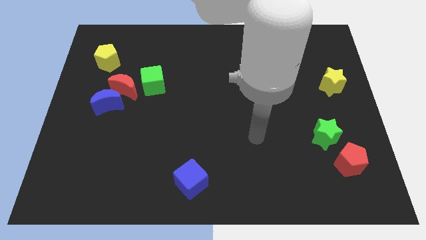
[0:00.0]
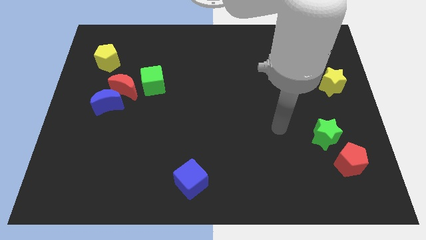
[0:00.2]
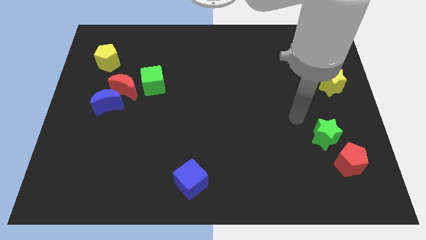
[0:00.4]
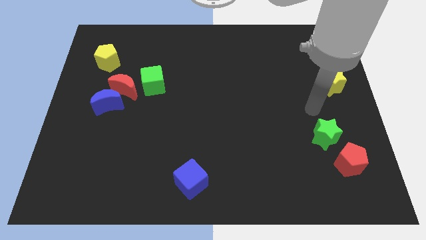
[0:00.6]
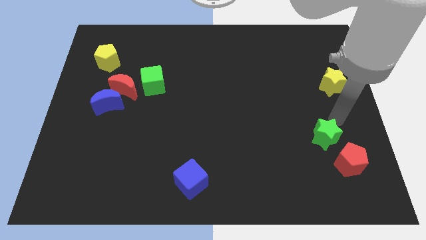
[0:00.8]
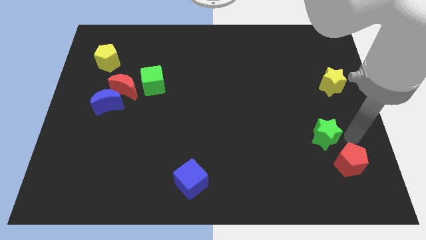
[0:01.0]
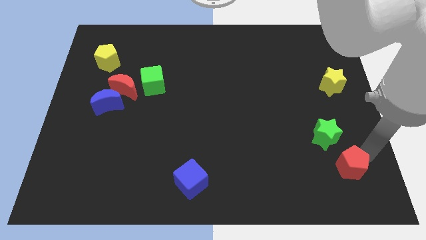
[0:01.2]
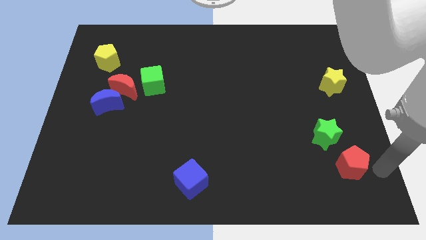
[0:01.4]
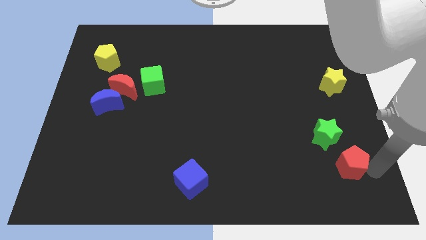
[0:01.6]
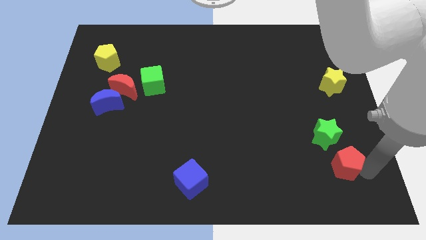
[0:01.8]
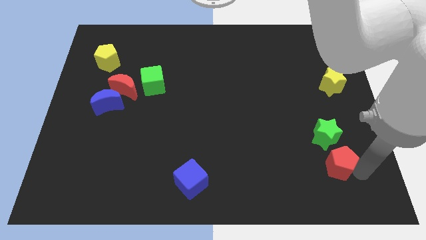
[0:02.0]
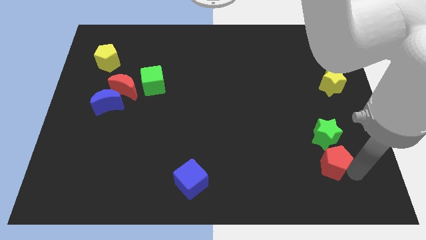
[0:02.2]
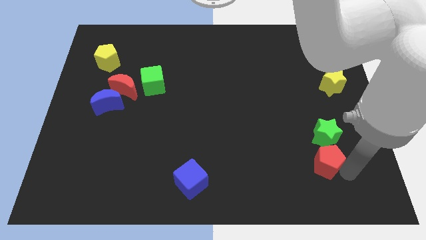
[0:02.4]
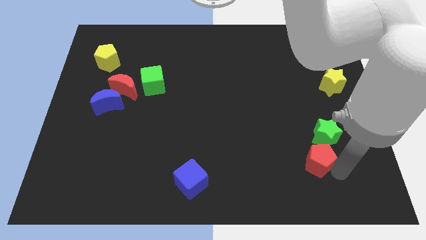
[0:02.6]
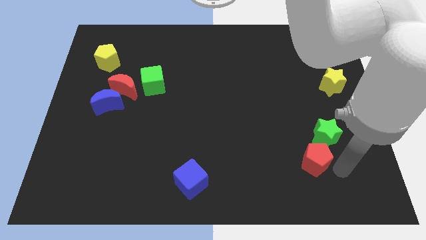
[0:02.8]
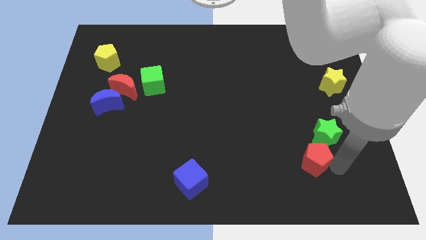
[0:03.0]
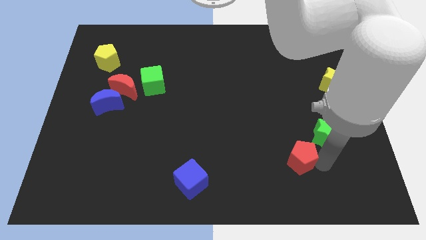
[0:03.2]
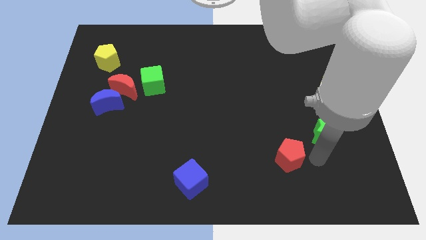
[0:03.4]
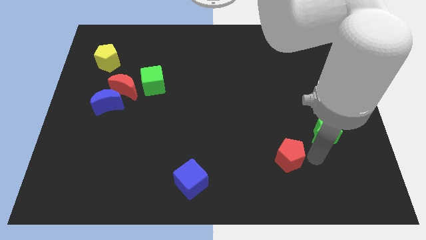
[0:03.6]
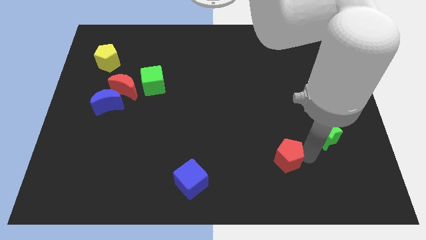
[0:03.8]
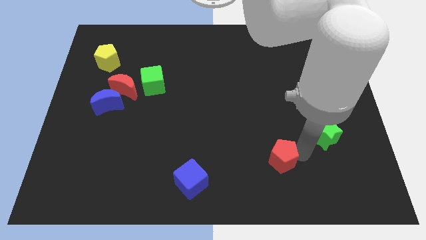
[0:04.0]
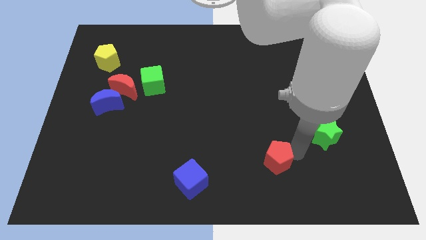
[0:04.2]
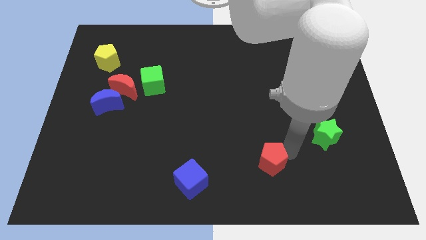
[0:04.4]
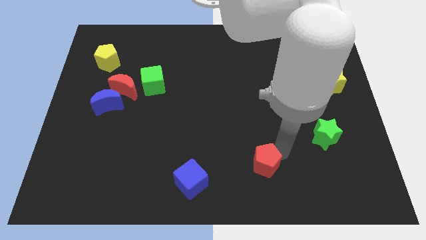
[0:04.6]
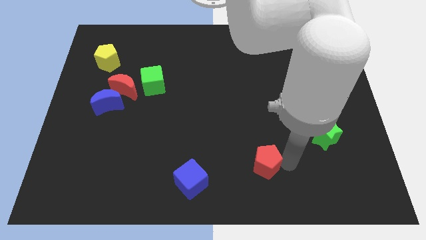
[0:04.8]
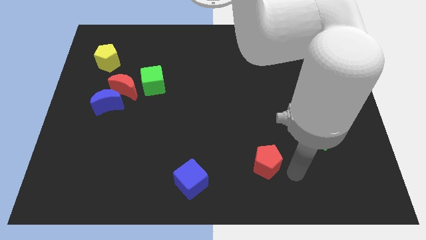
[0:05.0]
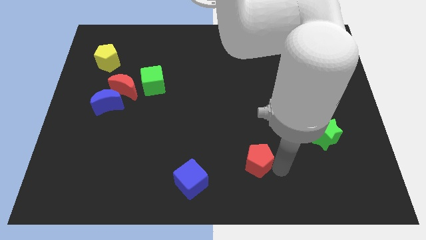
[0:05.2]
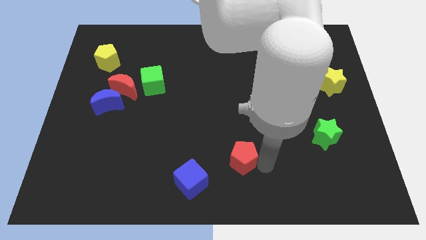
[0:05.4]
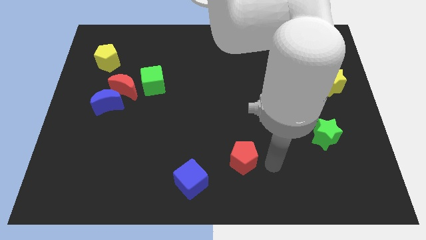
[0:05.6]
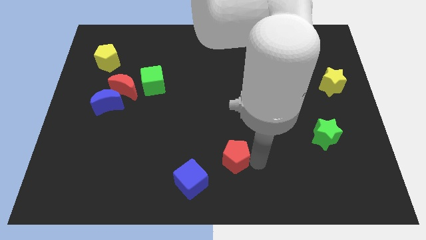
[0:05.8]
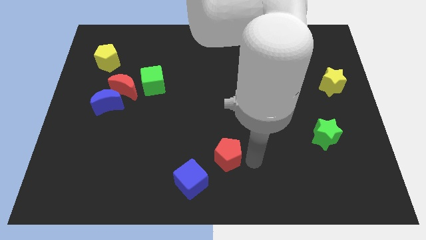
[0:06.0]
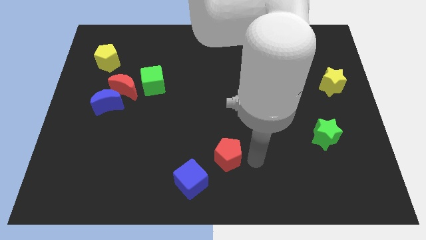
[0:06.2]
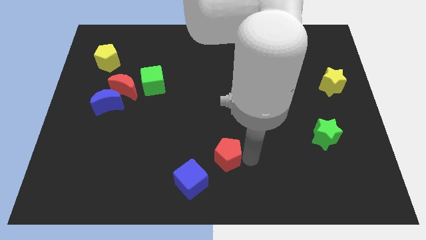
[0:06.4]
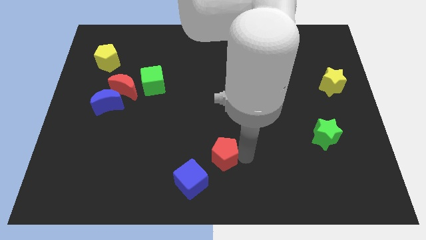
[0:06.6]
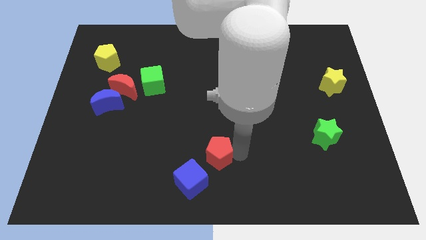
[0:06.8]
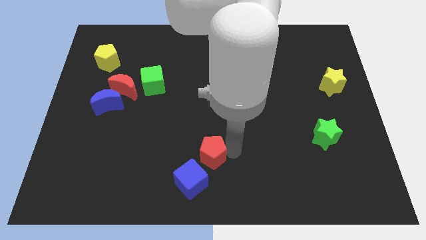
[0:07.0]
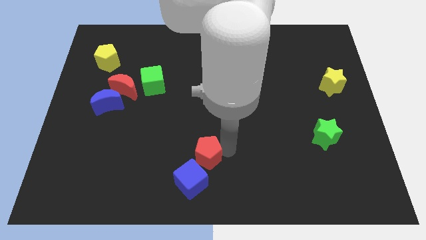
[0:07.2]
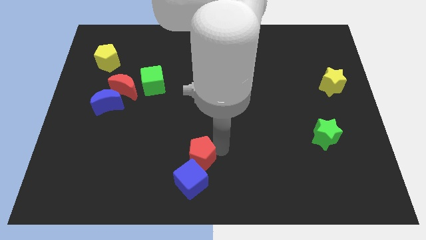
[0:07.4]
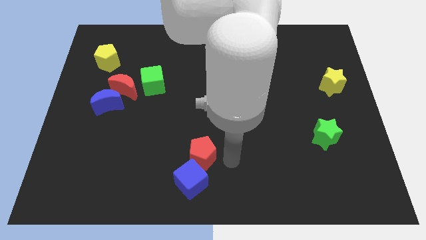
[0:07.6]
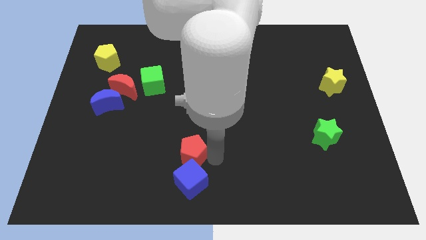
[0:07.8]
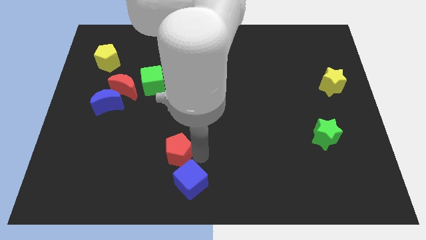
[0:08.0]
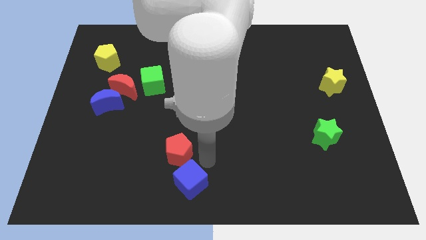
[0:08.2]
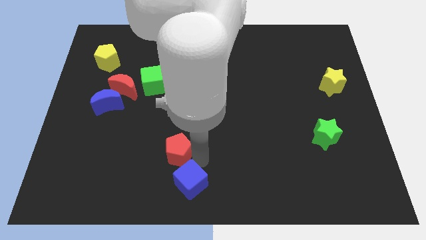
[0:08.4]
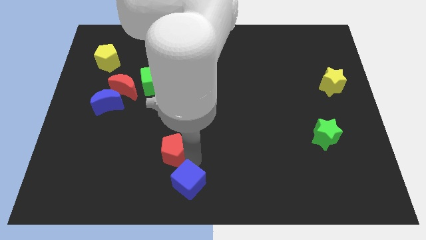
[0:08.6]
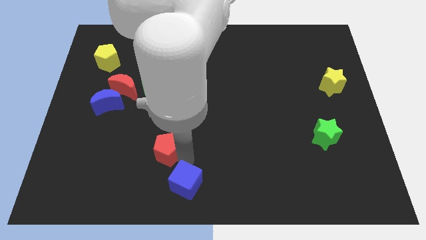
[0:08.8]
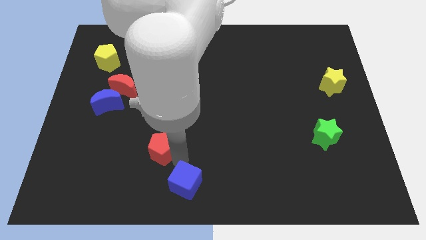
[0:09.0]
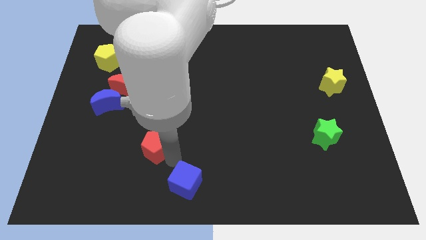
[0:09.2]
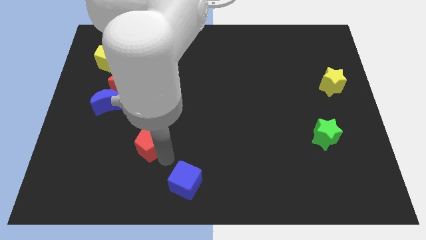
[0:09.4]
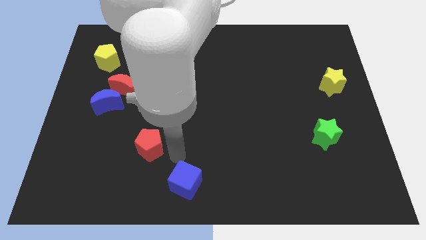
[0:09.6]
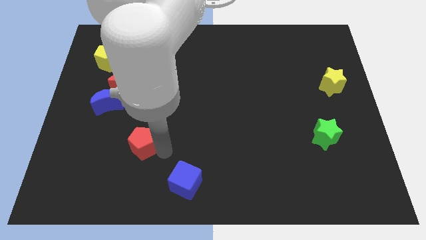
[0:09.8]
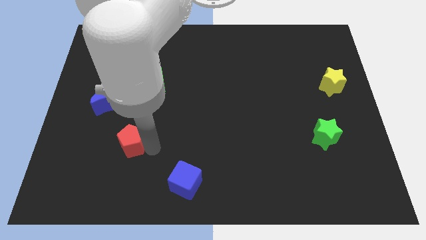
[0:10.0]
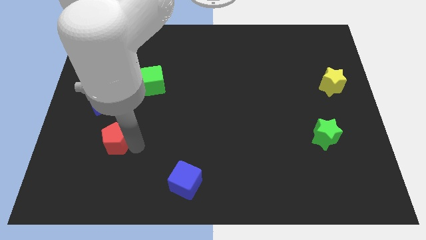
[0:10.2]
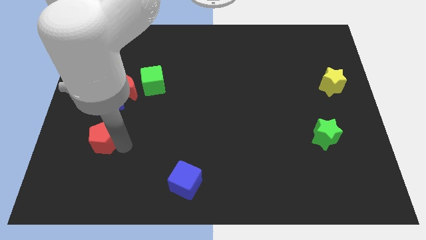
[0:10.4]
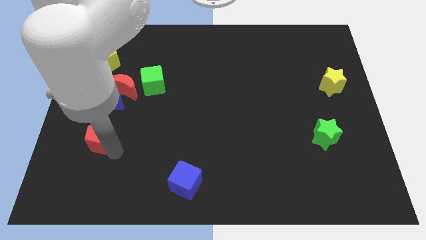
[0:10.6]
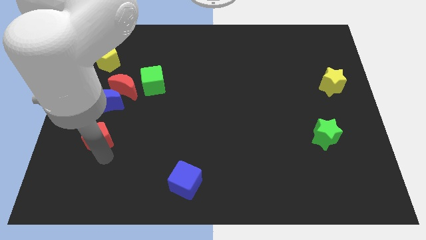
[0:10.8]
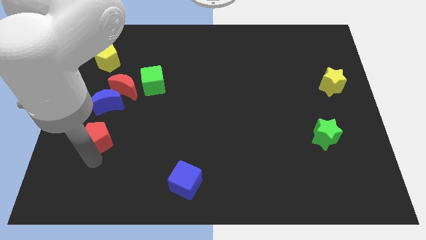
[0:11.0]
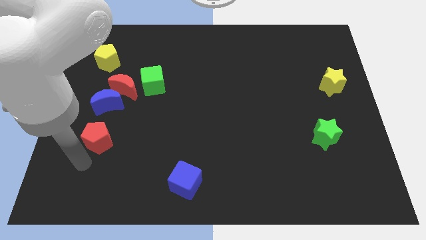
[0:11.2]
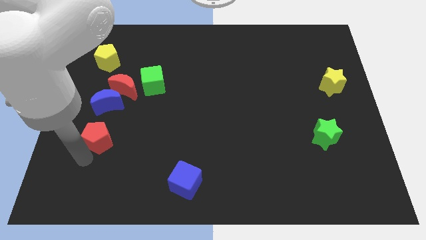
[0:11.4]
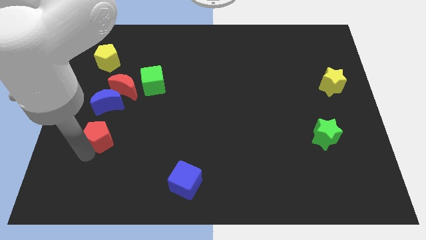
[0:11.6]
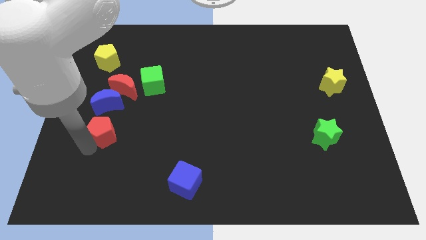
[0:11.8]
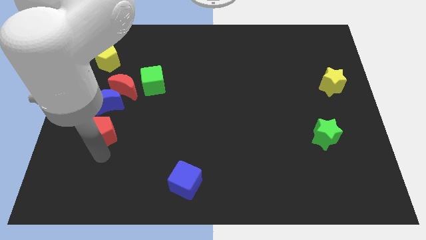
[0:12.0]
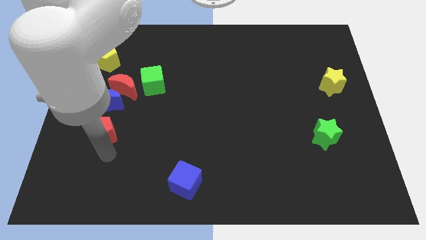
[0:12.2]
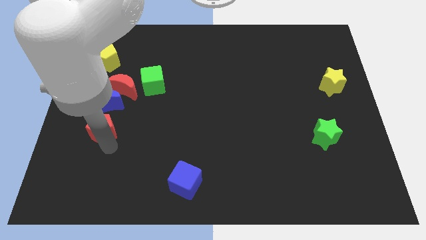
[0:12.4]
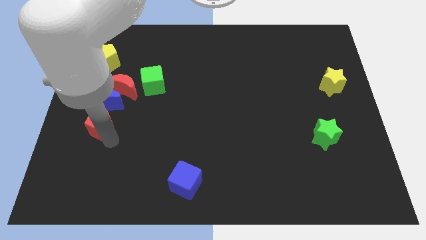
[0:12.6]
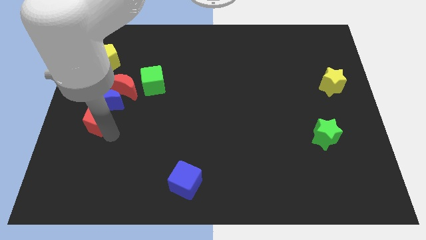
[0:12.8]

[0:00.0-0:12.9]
push the red pentagon to the bottom left of the red moon

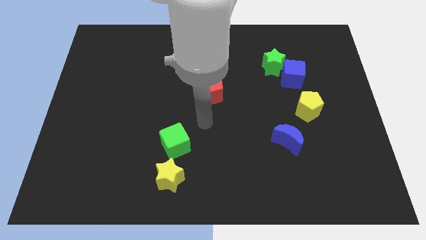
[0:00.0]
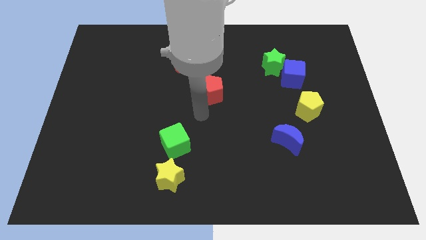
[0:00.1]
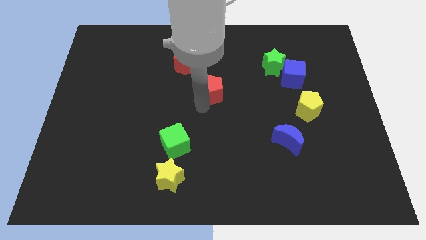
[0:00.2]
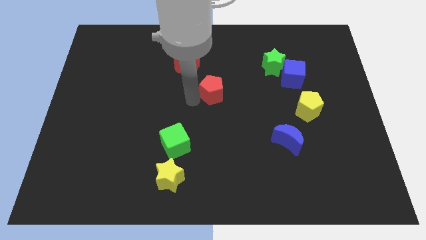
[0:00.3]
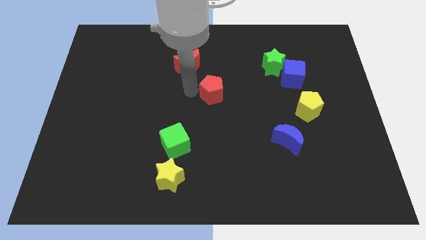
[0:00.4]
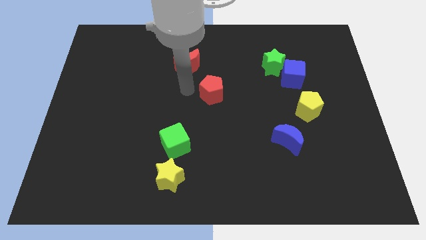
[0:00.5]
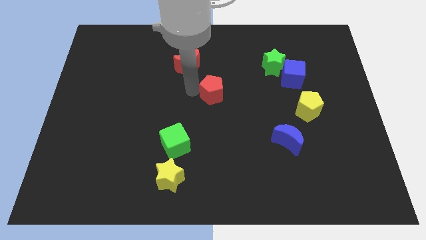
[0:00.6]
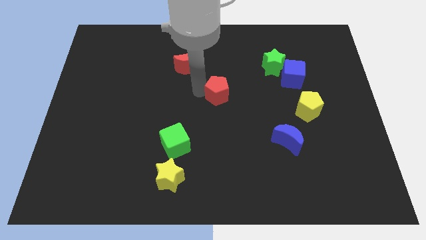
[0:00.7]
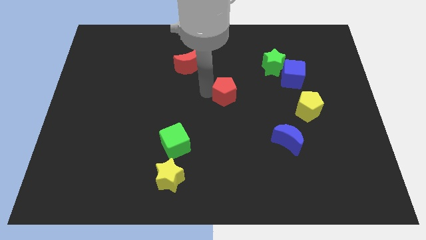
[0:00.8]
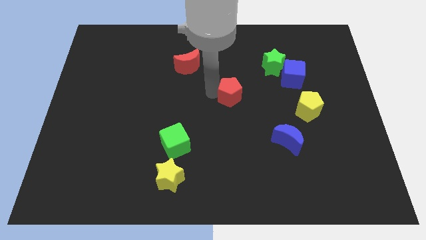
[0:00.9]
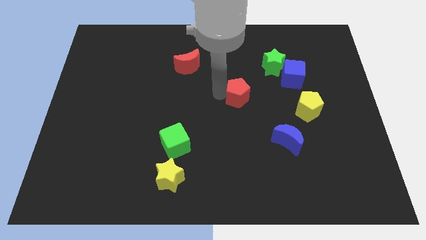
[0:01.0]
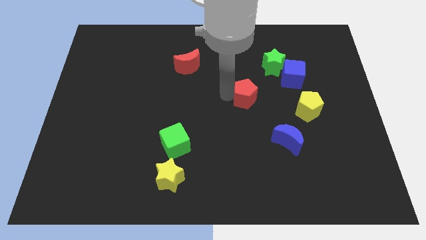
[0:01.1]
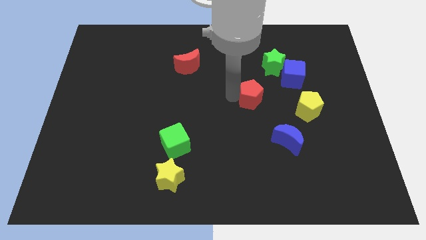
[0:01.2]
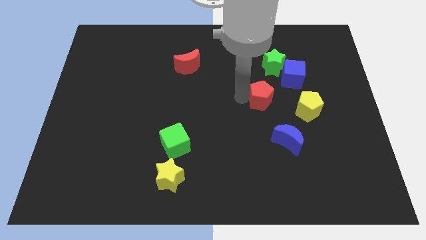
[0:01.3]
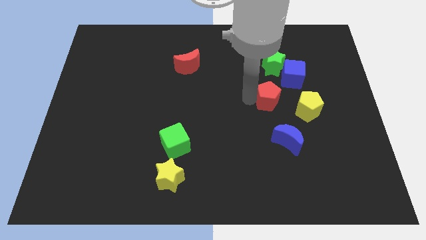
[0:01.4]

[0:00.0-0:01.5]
put the red pentagon to the top left of the yellow pentagon
